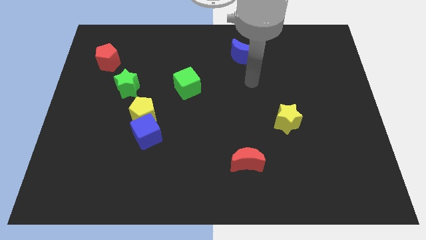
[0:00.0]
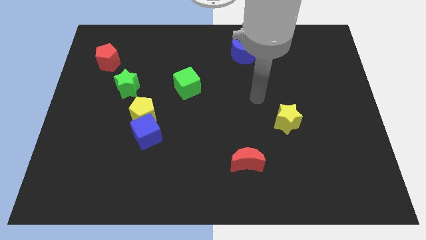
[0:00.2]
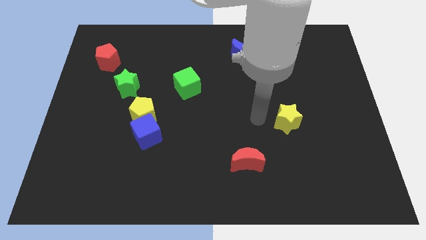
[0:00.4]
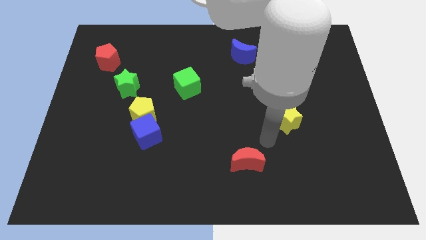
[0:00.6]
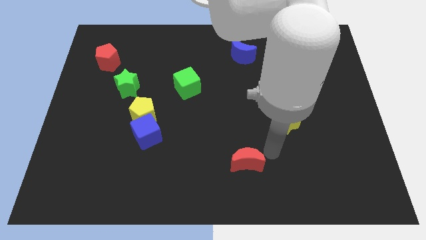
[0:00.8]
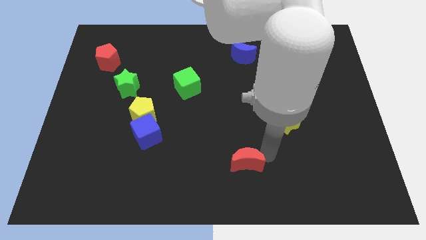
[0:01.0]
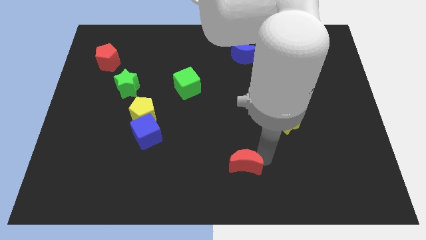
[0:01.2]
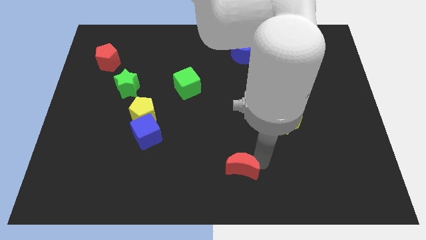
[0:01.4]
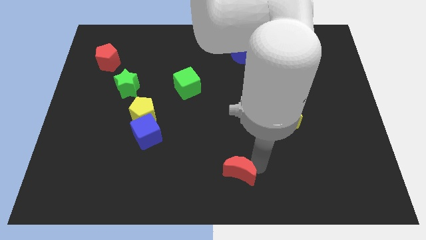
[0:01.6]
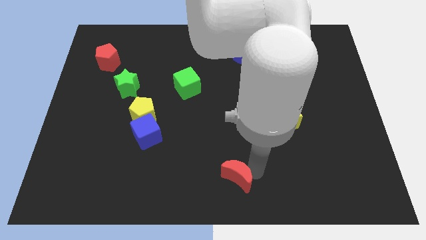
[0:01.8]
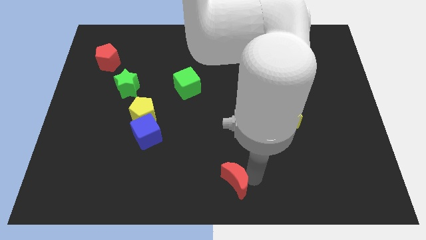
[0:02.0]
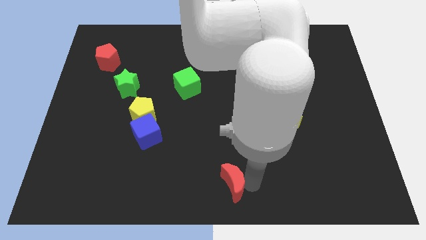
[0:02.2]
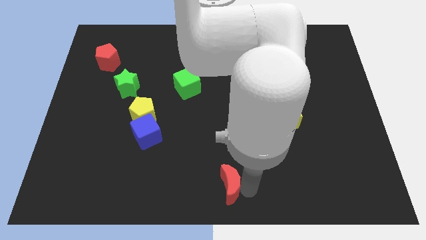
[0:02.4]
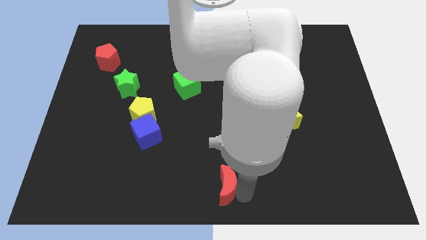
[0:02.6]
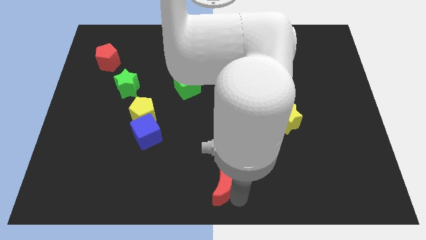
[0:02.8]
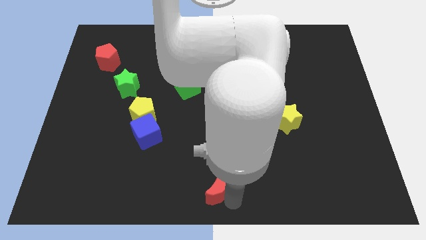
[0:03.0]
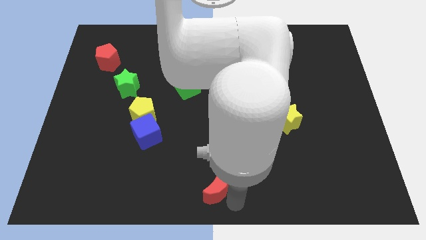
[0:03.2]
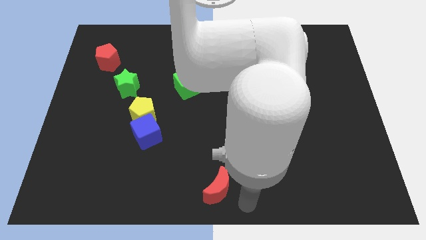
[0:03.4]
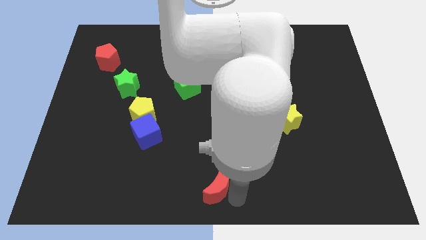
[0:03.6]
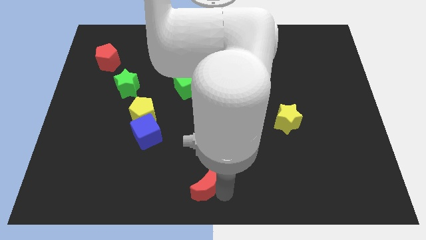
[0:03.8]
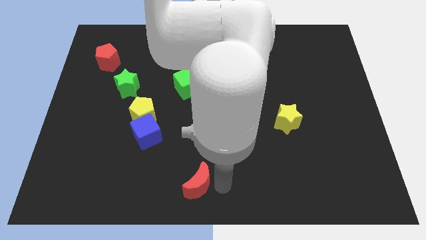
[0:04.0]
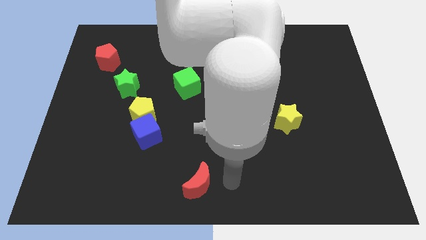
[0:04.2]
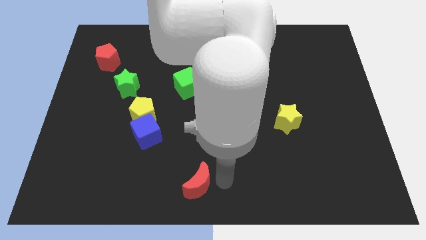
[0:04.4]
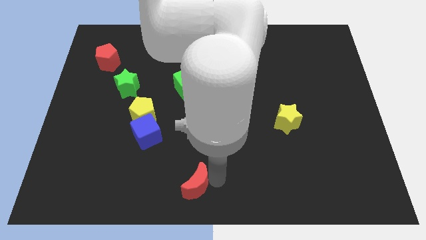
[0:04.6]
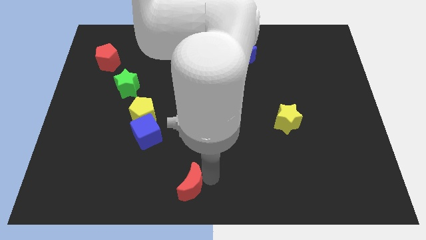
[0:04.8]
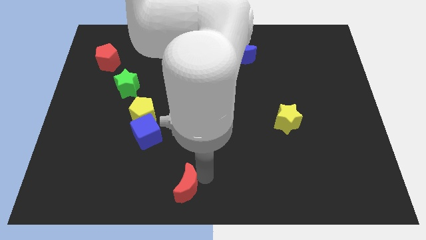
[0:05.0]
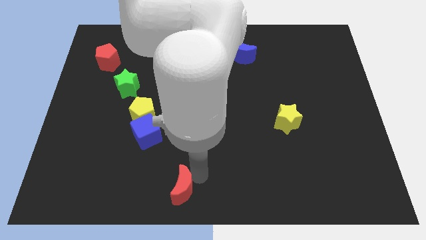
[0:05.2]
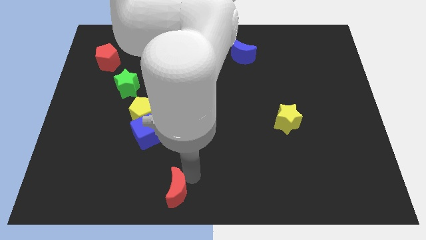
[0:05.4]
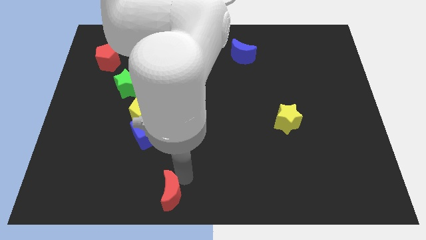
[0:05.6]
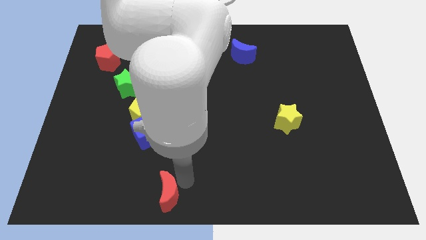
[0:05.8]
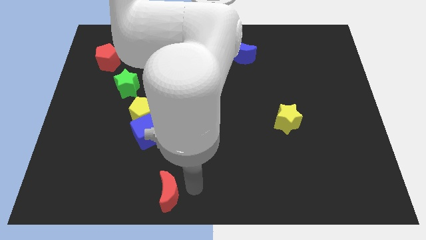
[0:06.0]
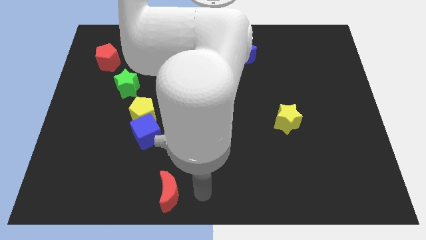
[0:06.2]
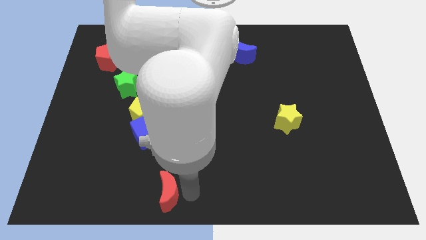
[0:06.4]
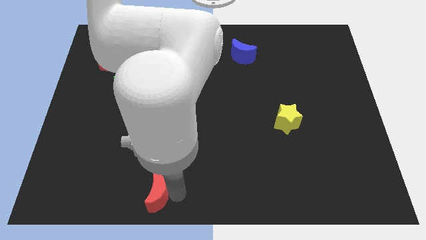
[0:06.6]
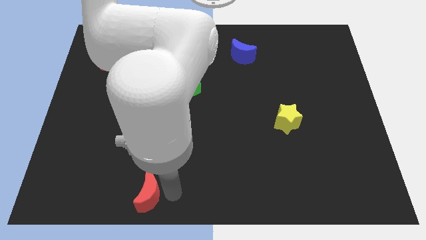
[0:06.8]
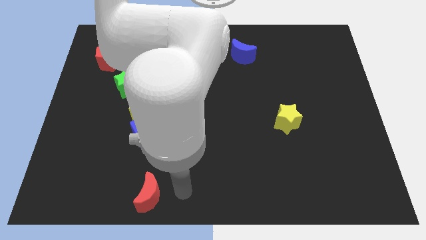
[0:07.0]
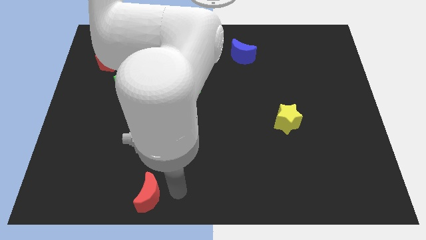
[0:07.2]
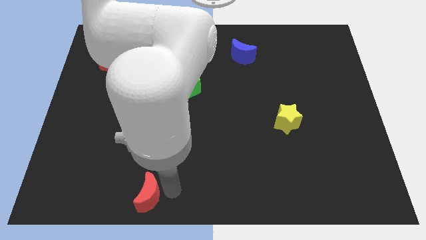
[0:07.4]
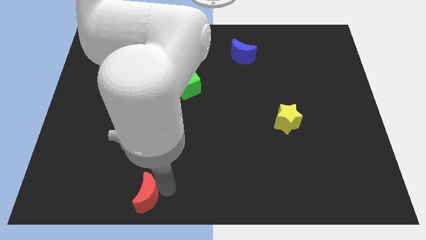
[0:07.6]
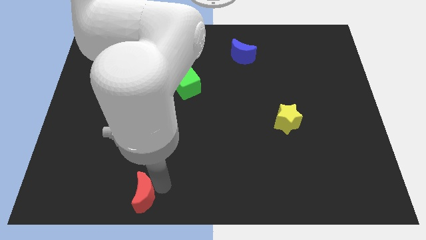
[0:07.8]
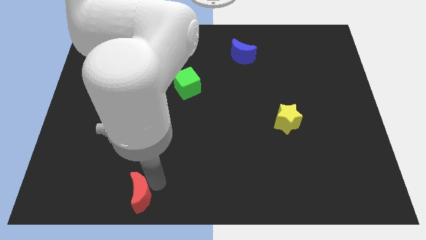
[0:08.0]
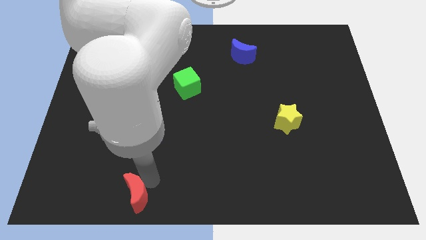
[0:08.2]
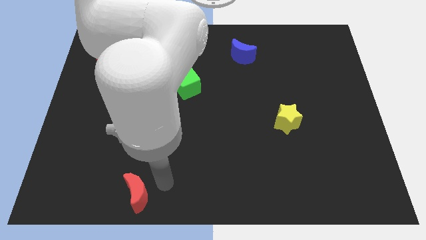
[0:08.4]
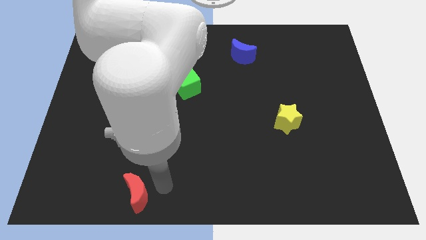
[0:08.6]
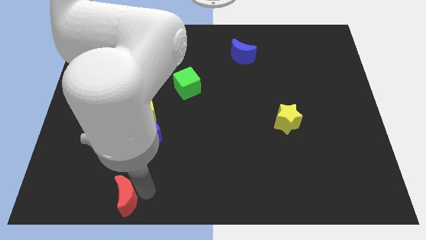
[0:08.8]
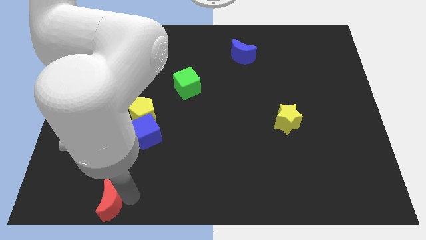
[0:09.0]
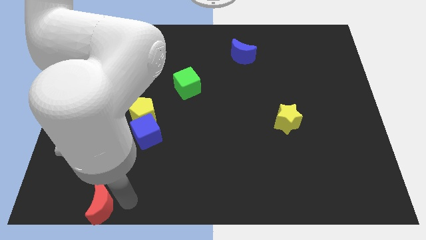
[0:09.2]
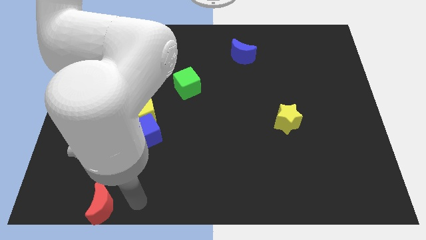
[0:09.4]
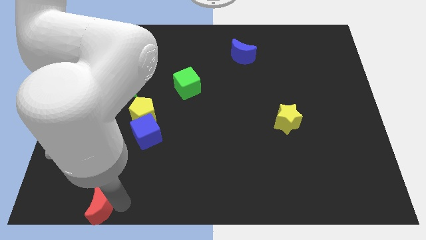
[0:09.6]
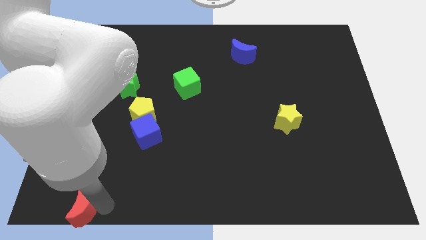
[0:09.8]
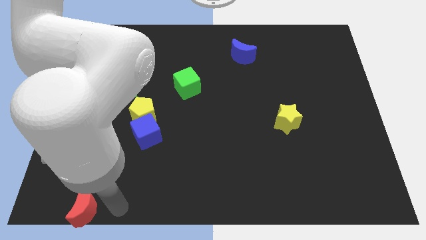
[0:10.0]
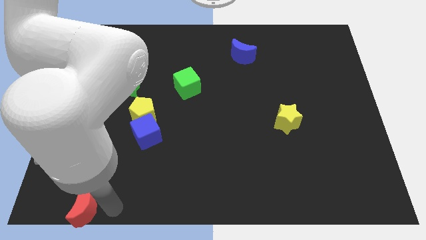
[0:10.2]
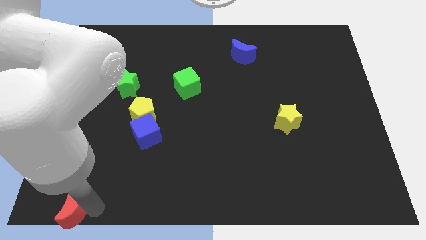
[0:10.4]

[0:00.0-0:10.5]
slide the red moon to the bottom left corner

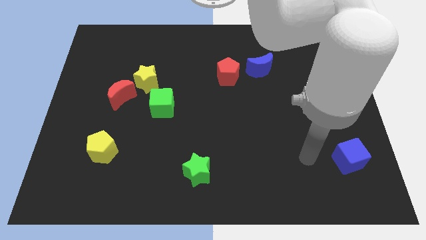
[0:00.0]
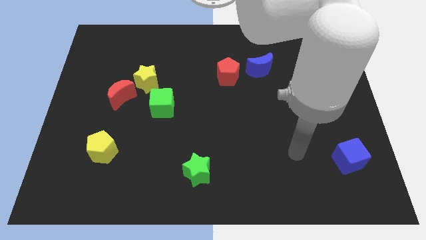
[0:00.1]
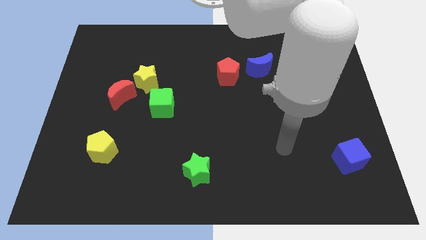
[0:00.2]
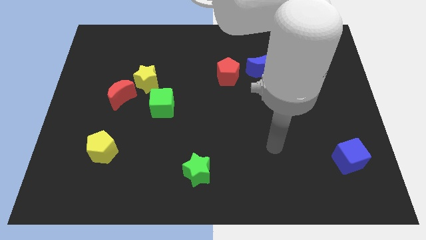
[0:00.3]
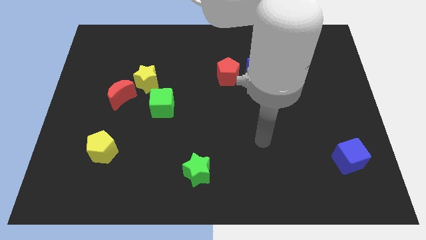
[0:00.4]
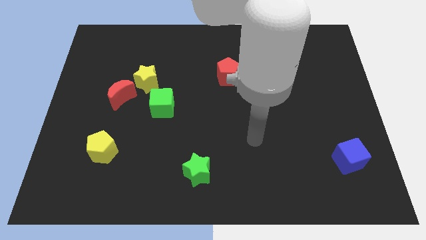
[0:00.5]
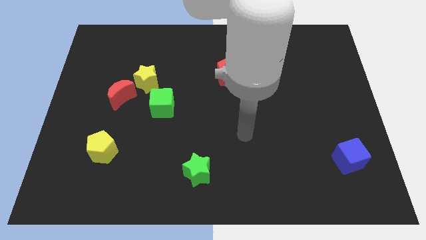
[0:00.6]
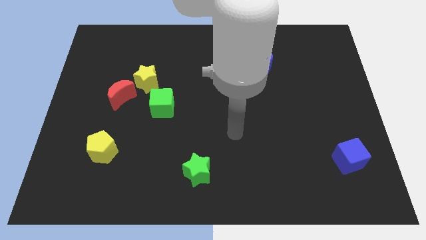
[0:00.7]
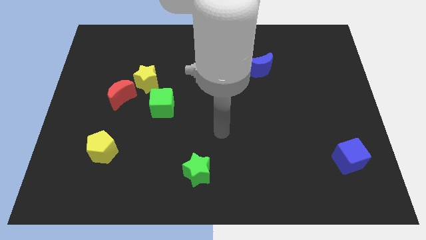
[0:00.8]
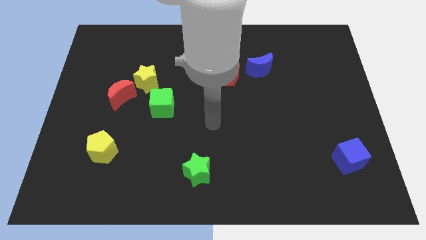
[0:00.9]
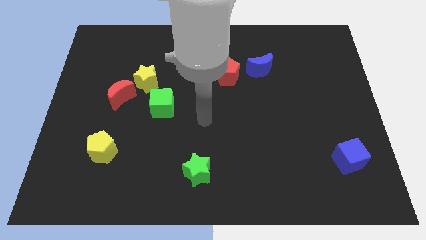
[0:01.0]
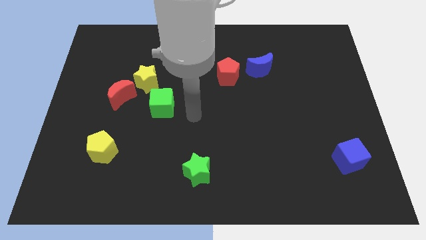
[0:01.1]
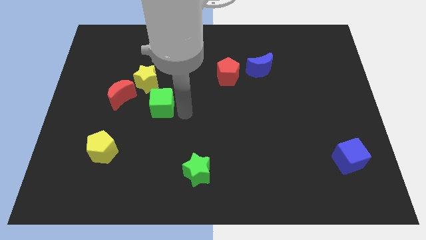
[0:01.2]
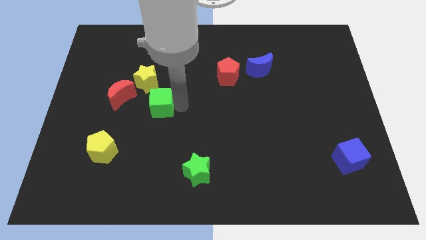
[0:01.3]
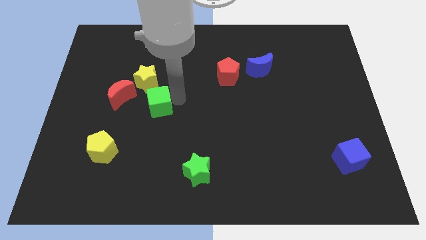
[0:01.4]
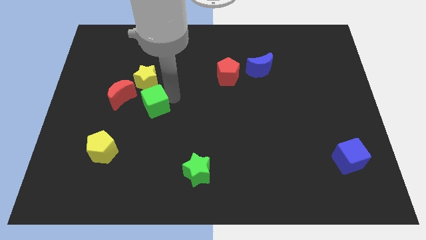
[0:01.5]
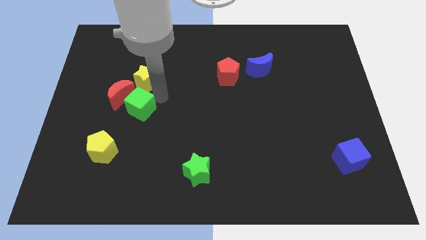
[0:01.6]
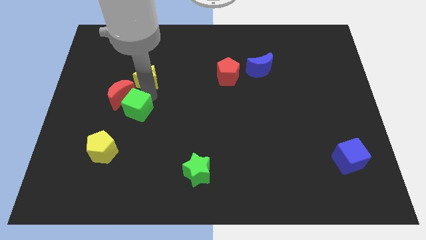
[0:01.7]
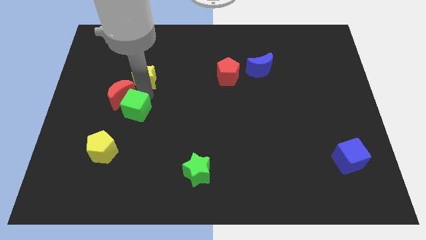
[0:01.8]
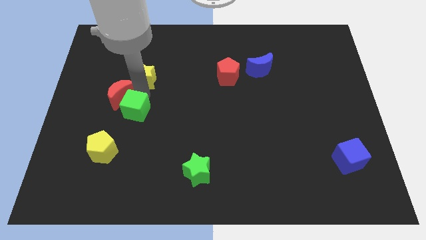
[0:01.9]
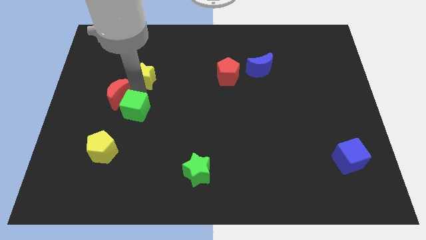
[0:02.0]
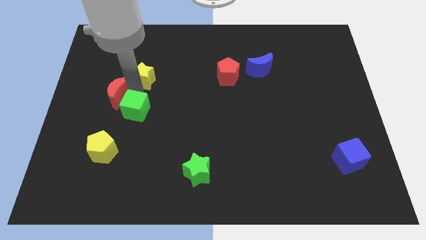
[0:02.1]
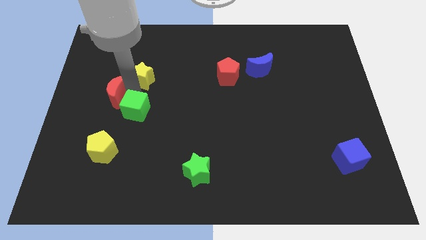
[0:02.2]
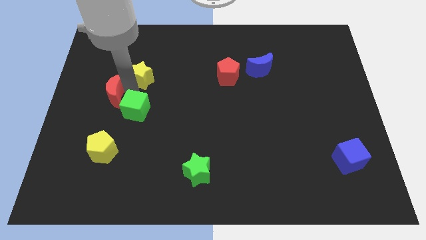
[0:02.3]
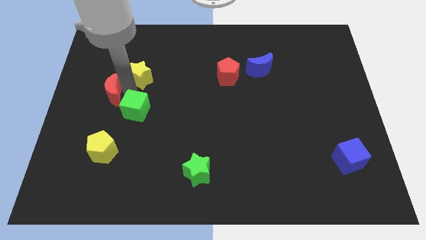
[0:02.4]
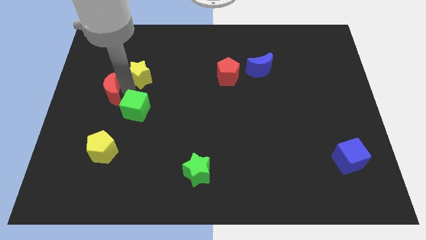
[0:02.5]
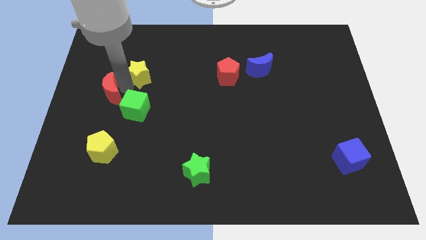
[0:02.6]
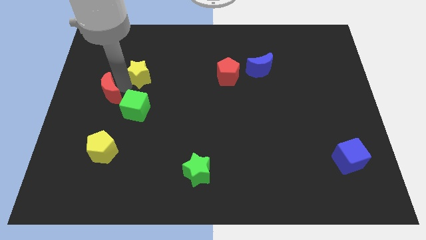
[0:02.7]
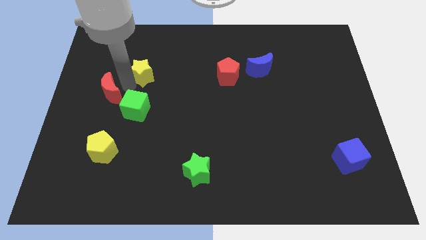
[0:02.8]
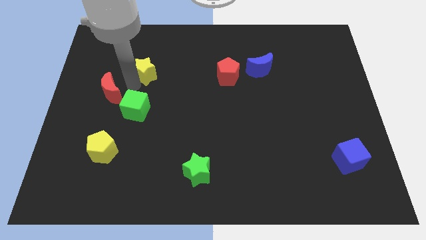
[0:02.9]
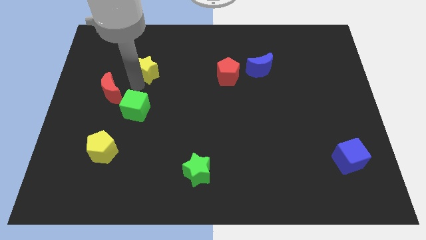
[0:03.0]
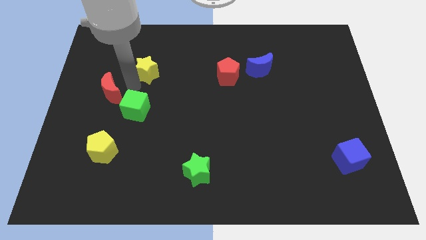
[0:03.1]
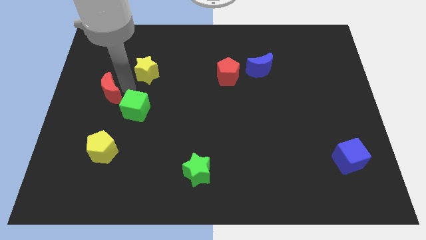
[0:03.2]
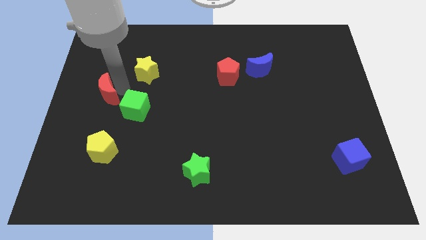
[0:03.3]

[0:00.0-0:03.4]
push the red moon to the center left
